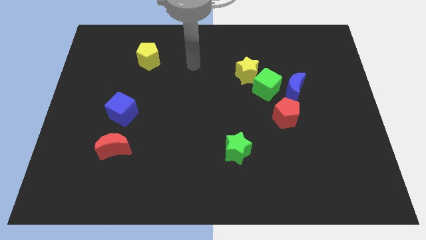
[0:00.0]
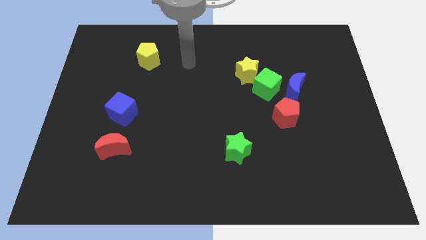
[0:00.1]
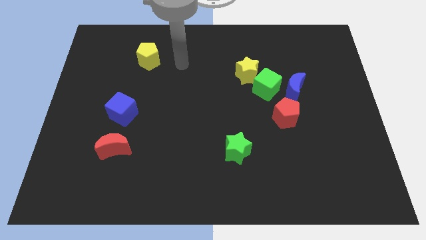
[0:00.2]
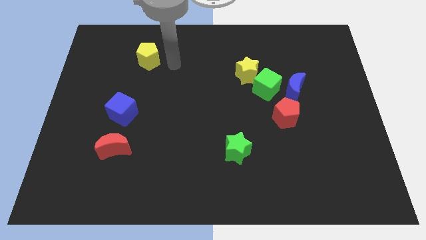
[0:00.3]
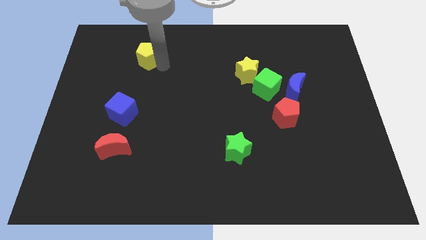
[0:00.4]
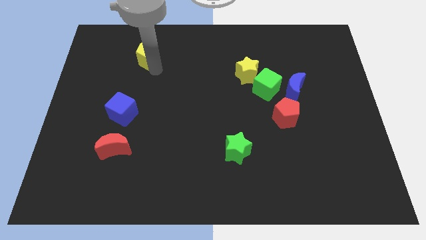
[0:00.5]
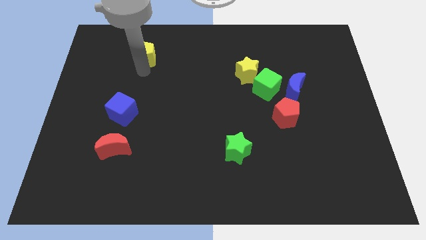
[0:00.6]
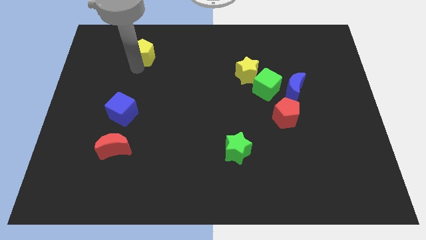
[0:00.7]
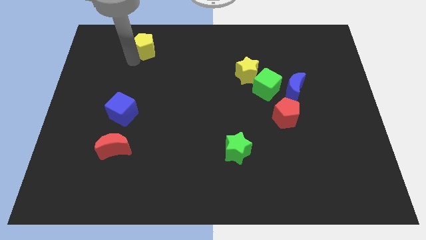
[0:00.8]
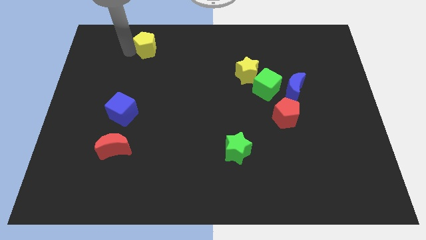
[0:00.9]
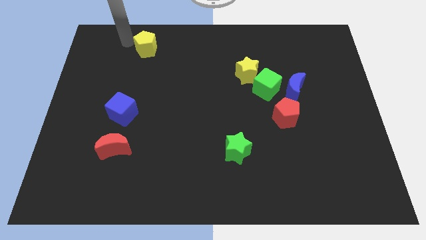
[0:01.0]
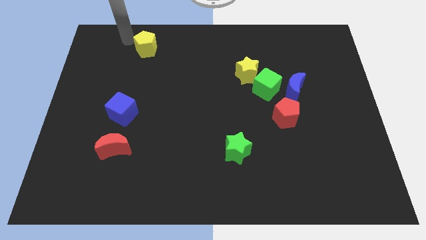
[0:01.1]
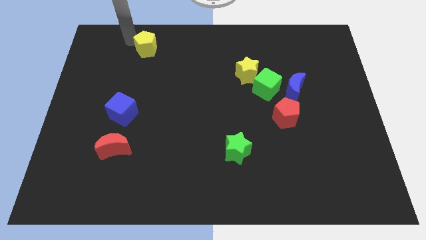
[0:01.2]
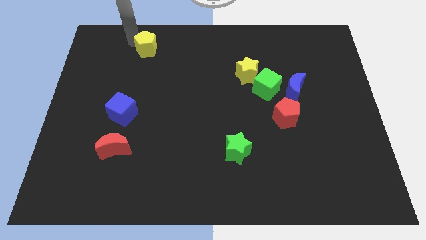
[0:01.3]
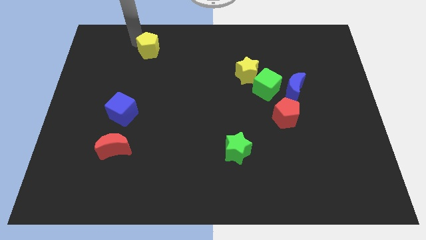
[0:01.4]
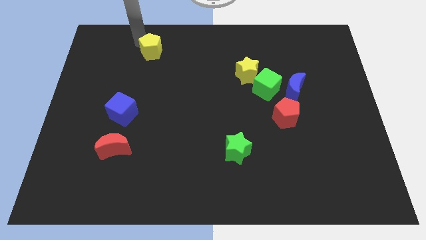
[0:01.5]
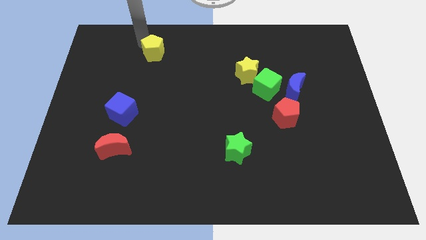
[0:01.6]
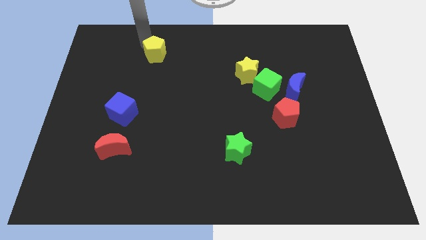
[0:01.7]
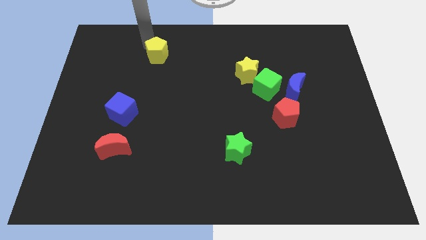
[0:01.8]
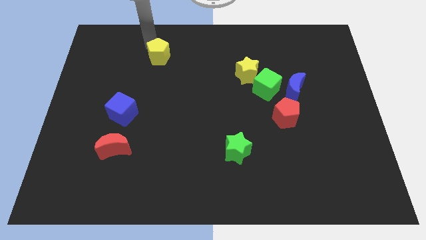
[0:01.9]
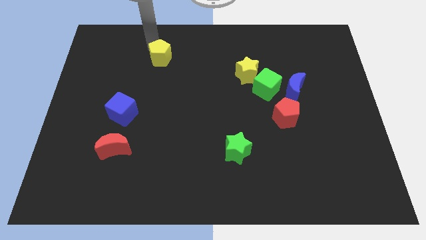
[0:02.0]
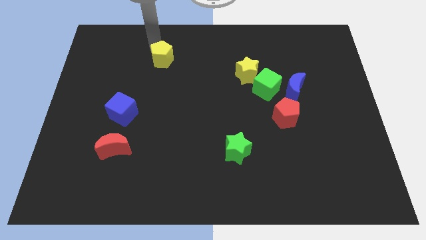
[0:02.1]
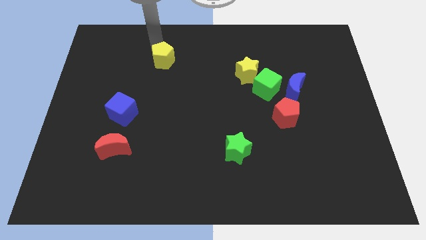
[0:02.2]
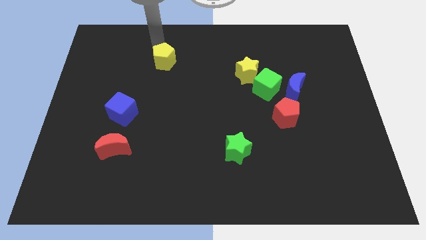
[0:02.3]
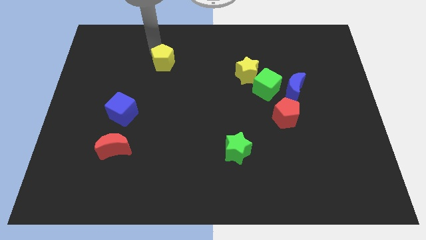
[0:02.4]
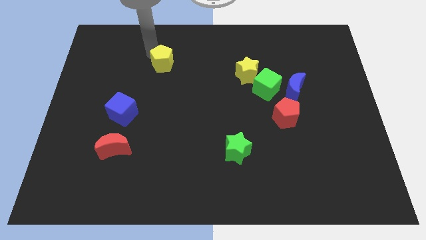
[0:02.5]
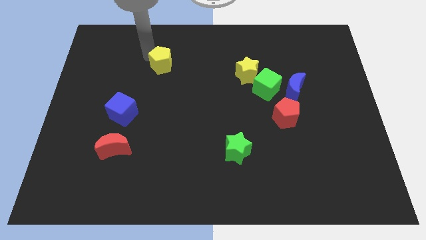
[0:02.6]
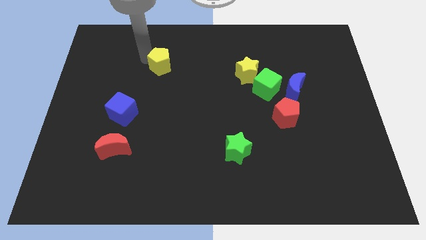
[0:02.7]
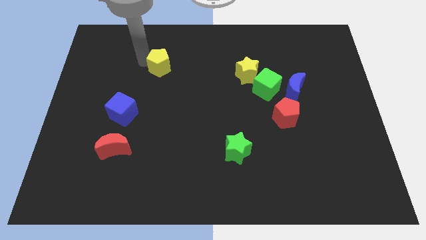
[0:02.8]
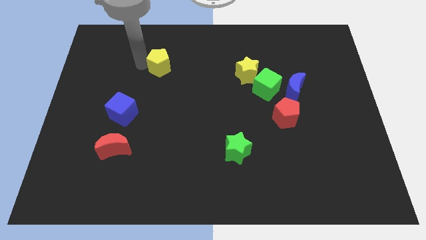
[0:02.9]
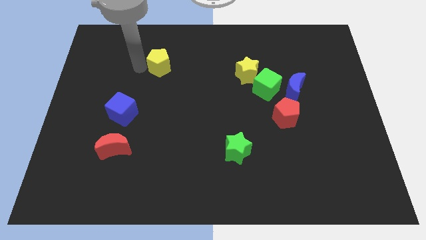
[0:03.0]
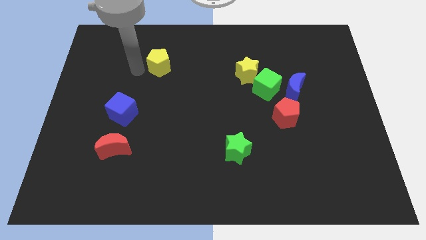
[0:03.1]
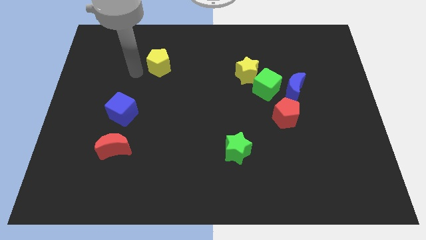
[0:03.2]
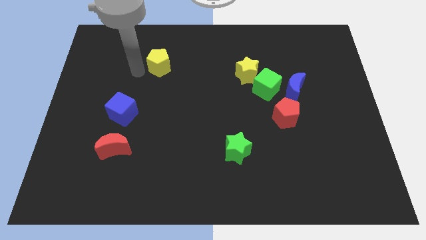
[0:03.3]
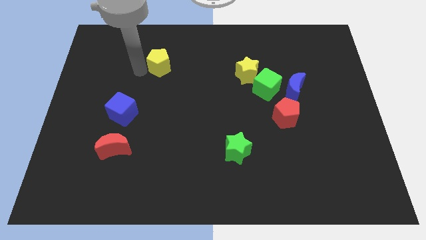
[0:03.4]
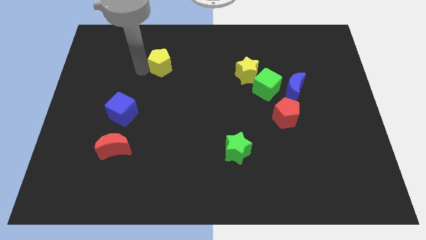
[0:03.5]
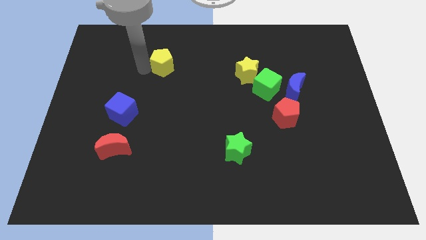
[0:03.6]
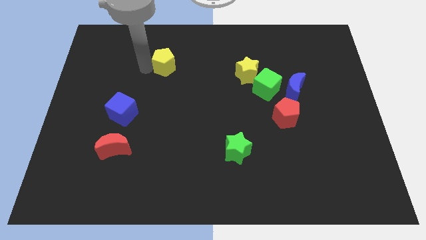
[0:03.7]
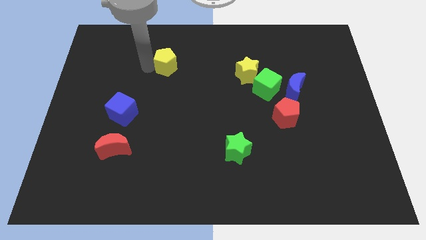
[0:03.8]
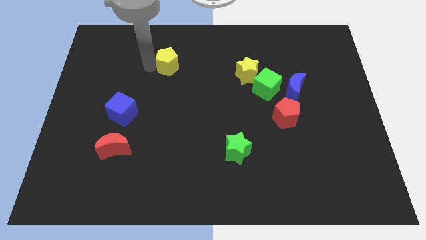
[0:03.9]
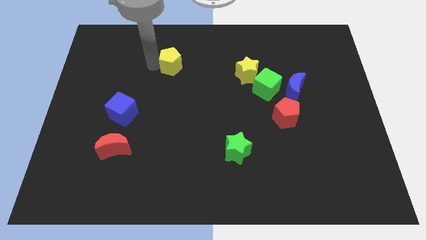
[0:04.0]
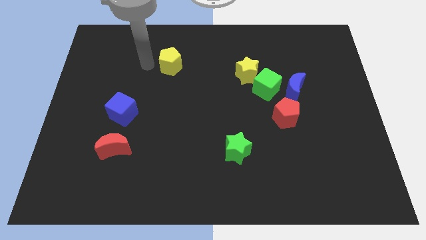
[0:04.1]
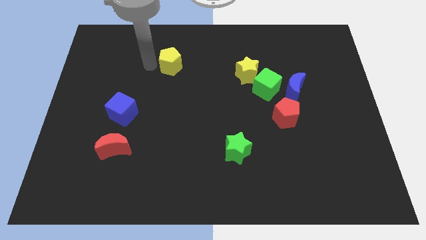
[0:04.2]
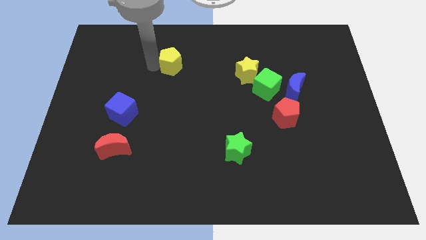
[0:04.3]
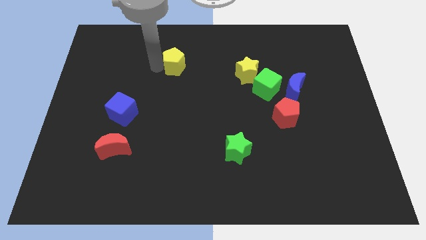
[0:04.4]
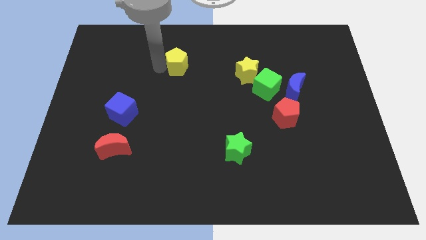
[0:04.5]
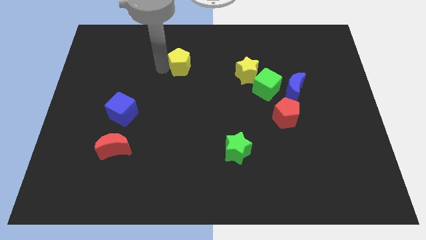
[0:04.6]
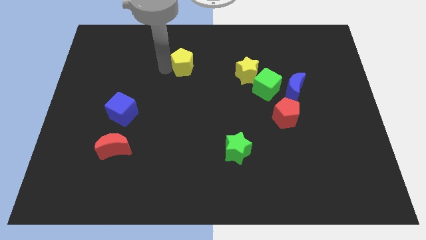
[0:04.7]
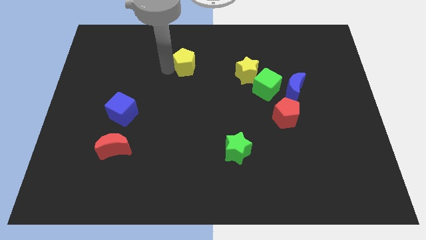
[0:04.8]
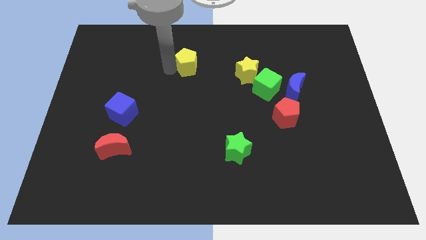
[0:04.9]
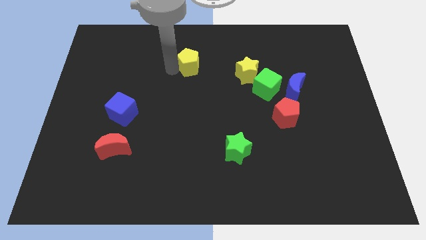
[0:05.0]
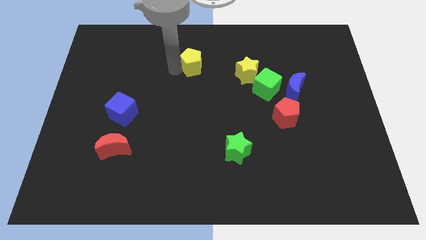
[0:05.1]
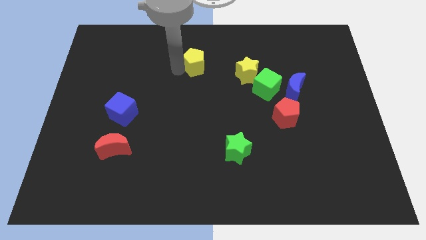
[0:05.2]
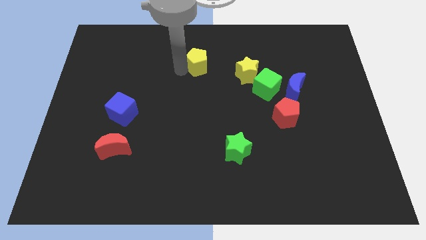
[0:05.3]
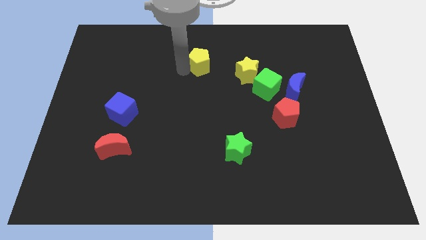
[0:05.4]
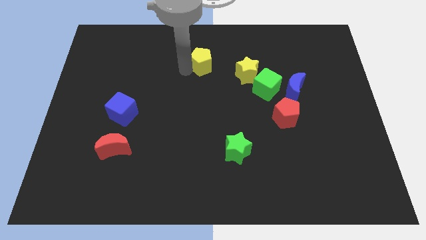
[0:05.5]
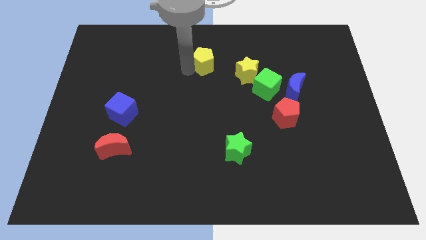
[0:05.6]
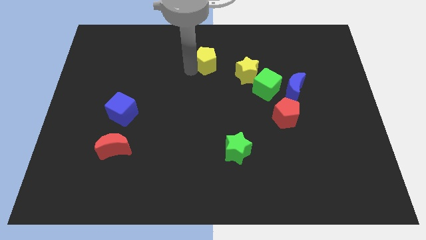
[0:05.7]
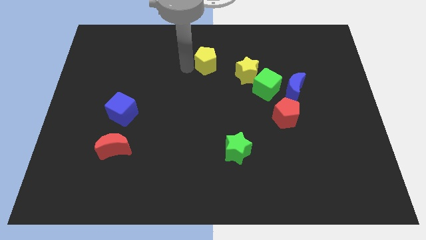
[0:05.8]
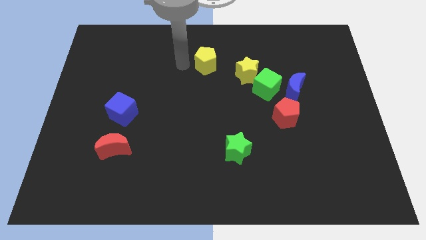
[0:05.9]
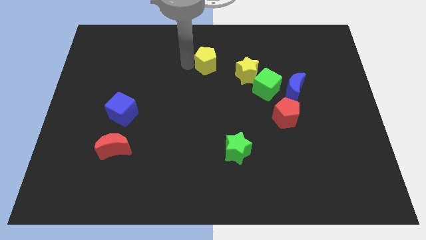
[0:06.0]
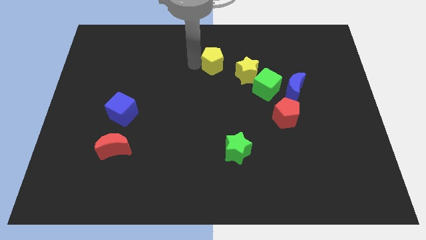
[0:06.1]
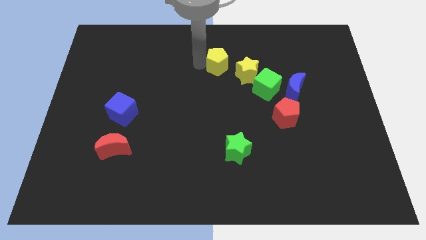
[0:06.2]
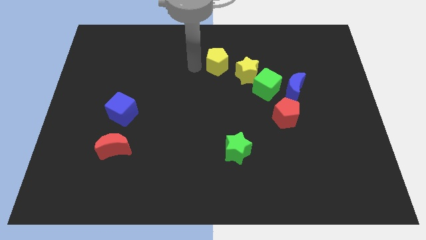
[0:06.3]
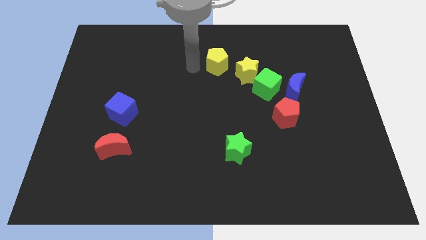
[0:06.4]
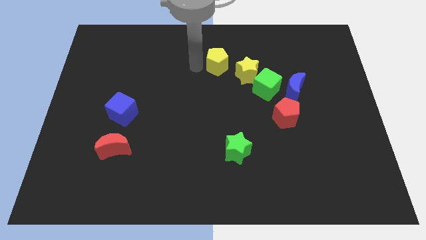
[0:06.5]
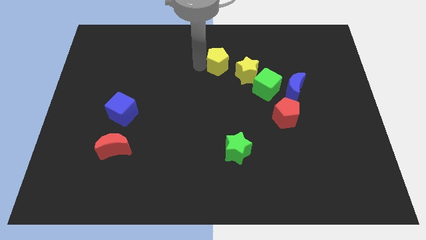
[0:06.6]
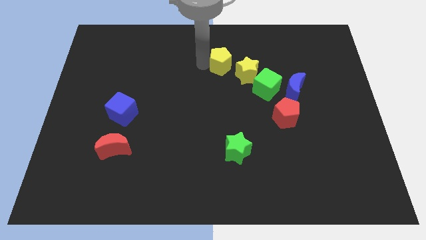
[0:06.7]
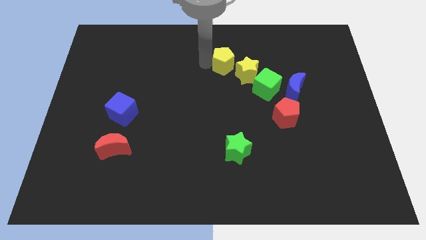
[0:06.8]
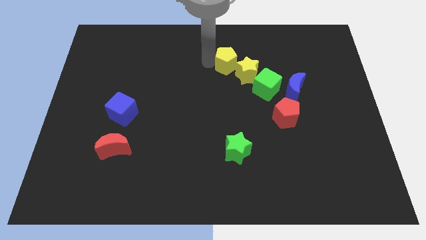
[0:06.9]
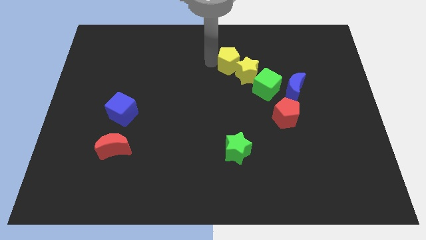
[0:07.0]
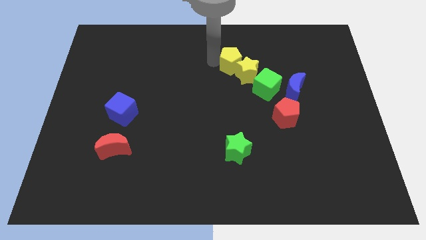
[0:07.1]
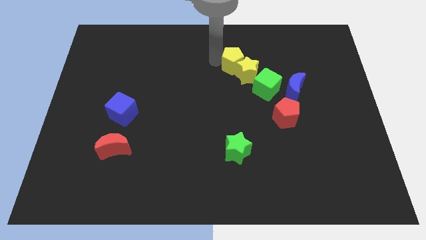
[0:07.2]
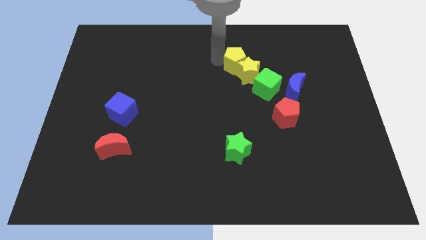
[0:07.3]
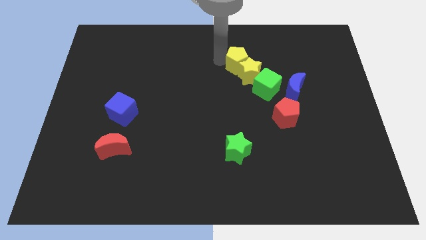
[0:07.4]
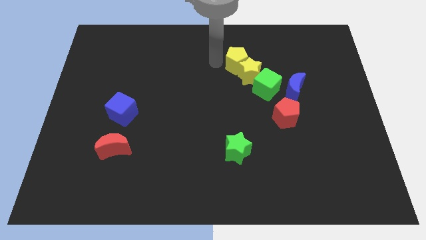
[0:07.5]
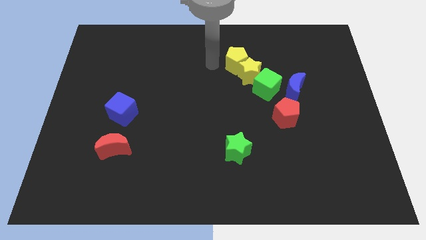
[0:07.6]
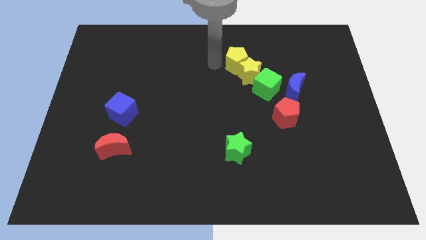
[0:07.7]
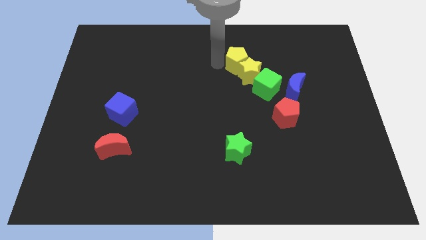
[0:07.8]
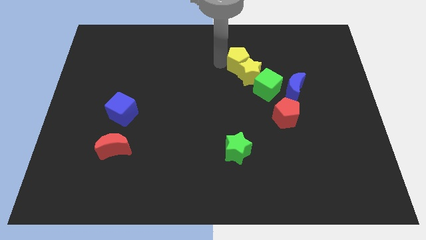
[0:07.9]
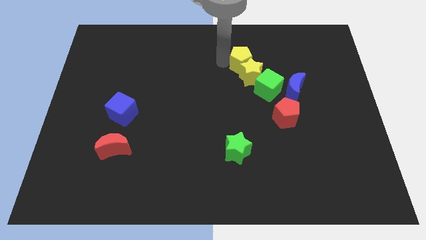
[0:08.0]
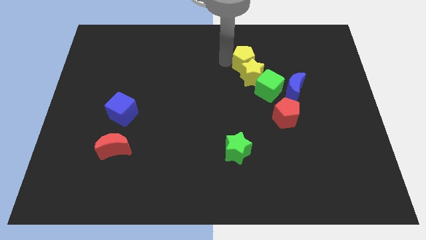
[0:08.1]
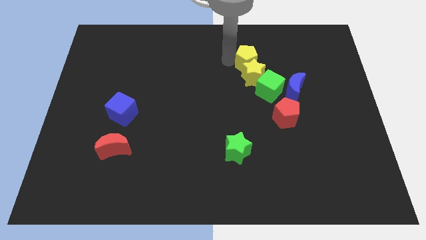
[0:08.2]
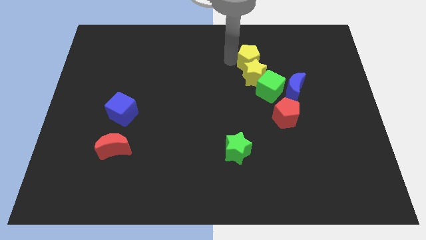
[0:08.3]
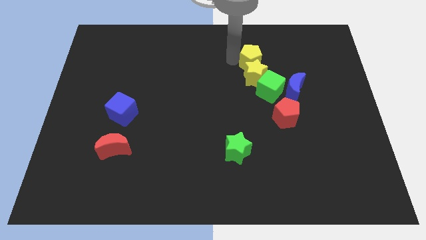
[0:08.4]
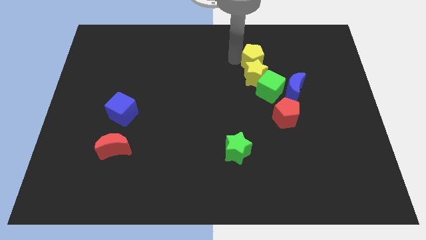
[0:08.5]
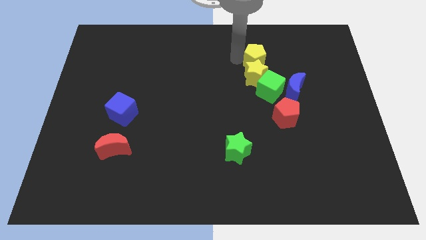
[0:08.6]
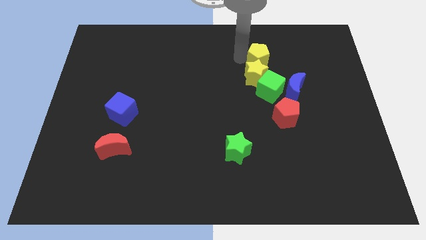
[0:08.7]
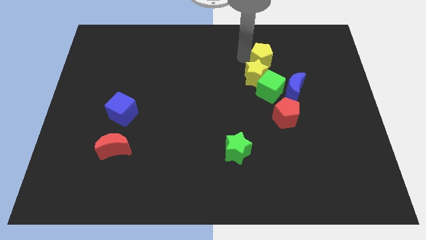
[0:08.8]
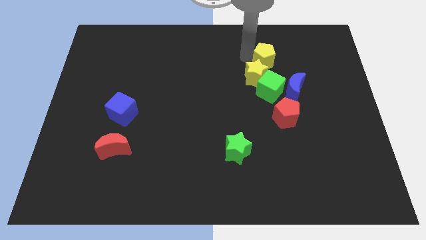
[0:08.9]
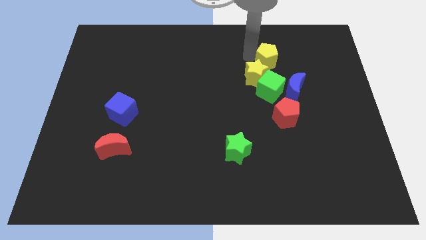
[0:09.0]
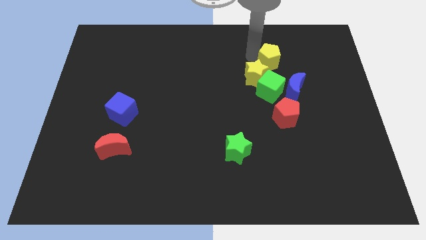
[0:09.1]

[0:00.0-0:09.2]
push the yellow pentagon above the blue moon
